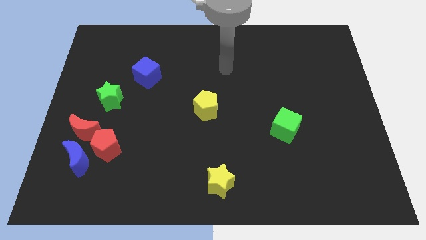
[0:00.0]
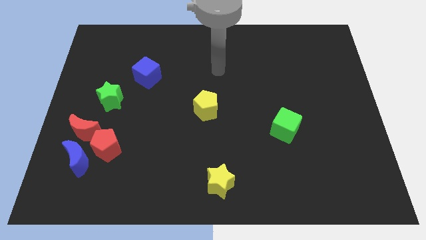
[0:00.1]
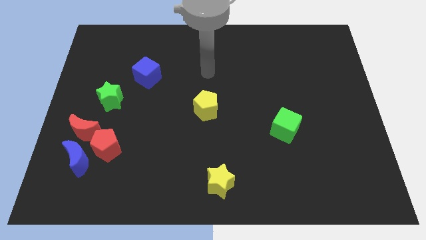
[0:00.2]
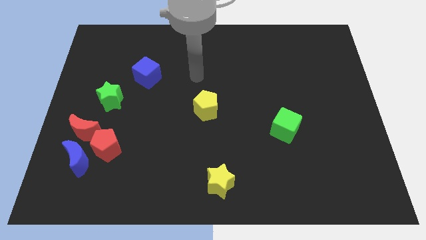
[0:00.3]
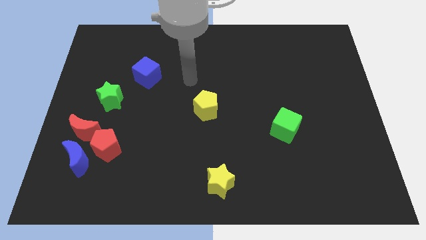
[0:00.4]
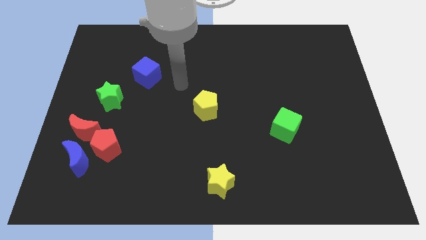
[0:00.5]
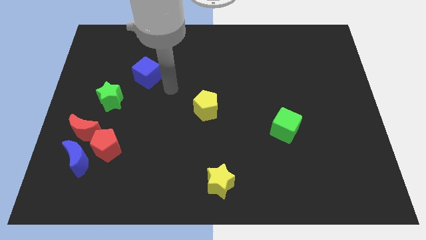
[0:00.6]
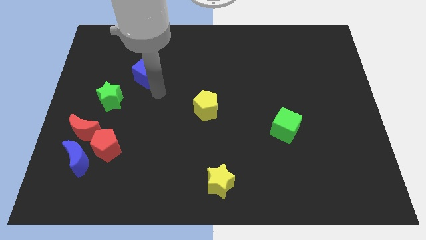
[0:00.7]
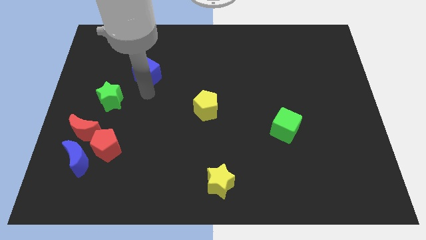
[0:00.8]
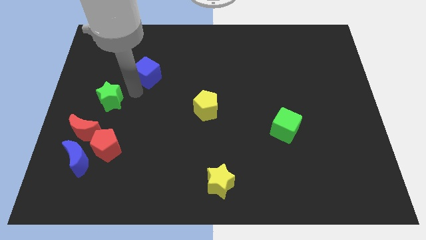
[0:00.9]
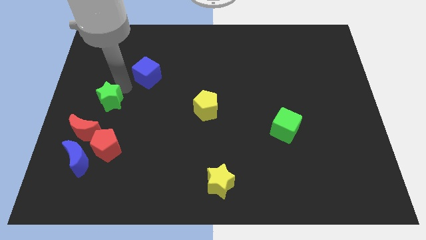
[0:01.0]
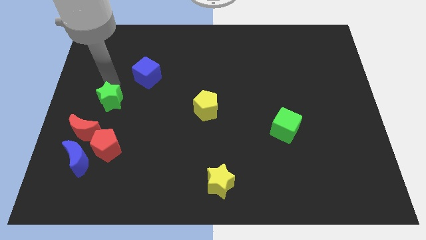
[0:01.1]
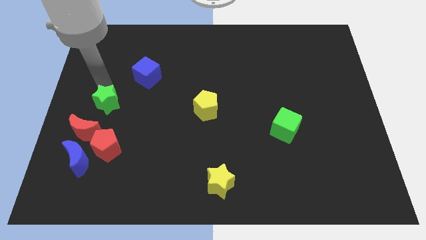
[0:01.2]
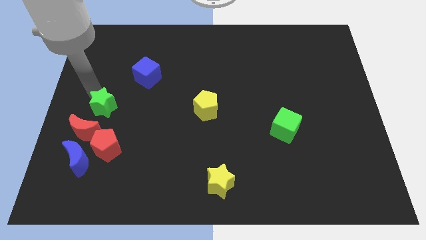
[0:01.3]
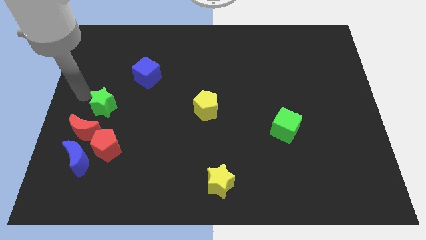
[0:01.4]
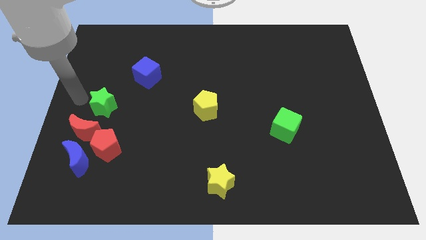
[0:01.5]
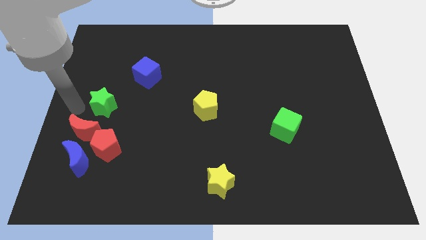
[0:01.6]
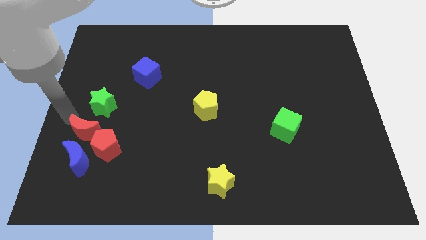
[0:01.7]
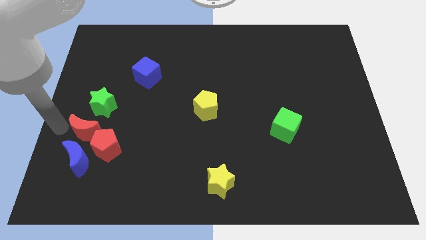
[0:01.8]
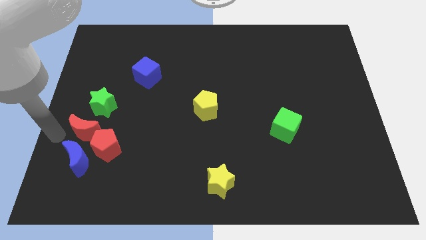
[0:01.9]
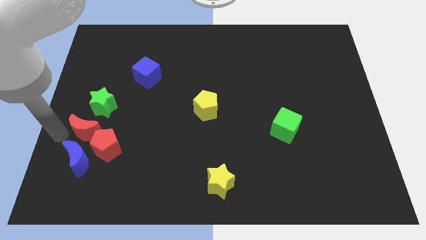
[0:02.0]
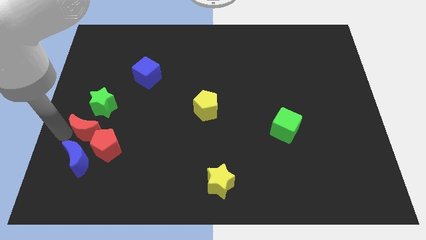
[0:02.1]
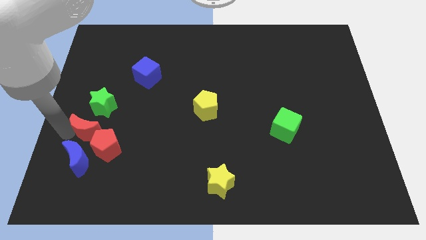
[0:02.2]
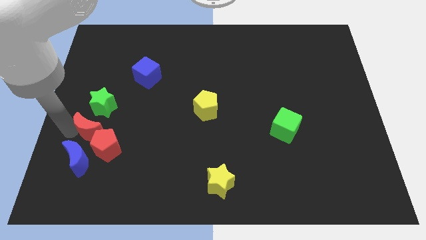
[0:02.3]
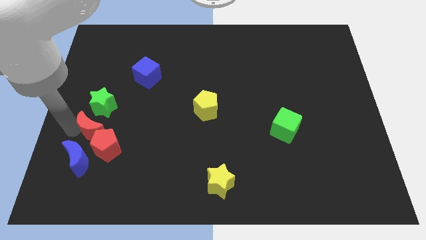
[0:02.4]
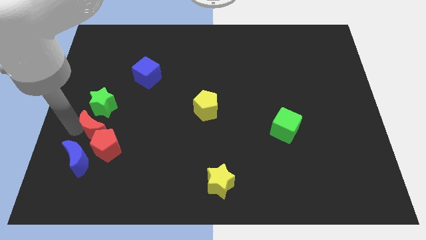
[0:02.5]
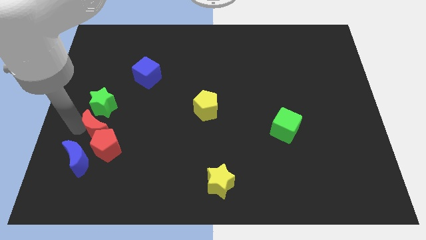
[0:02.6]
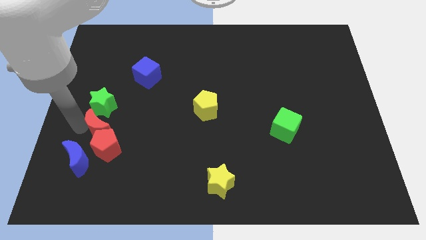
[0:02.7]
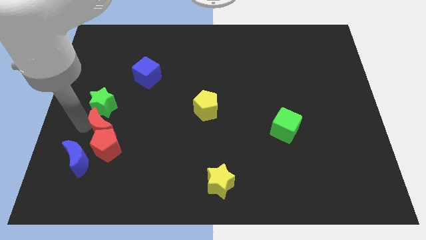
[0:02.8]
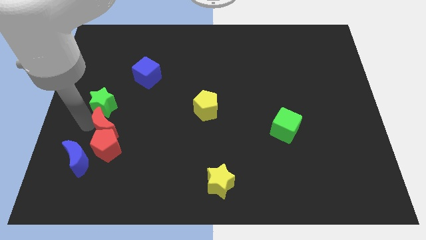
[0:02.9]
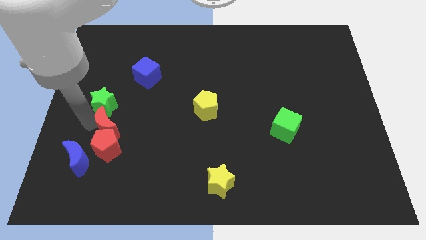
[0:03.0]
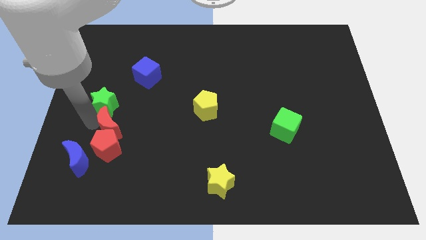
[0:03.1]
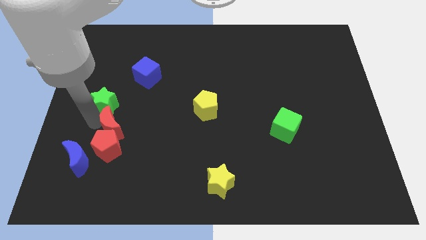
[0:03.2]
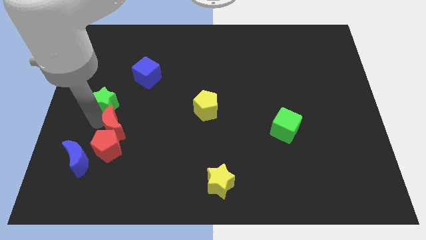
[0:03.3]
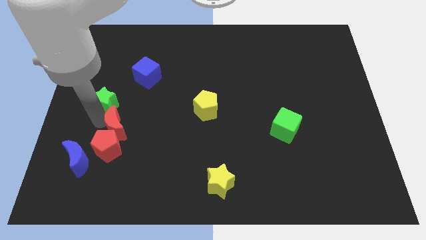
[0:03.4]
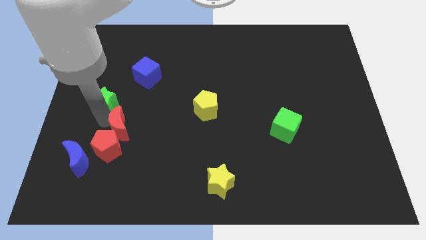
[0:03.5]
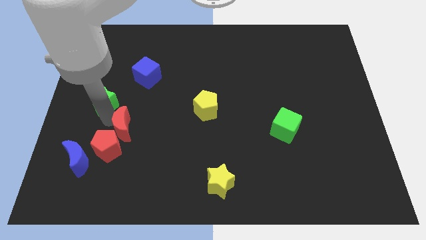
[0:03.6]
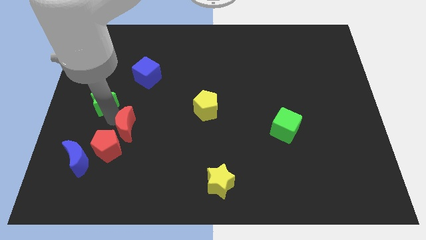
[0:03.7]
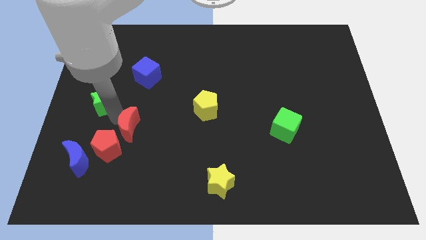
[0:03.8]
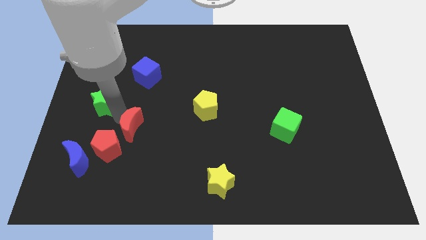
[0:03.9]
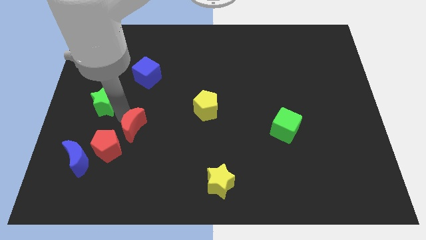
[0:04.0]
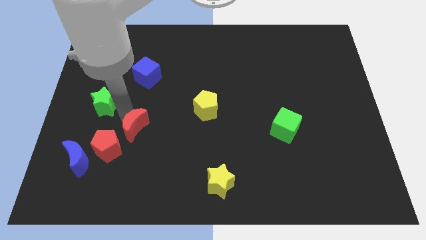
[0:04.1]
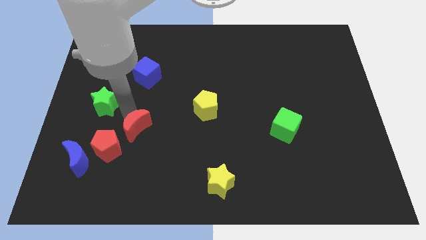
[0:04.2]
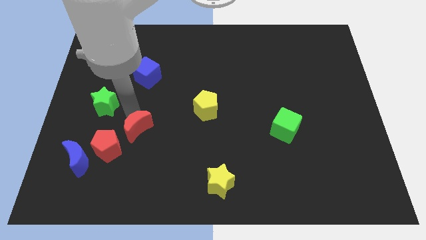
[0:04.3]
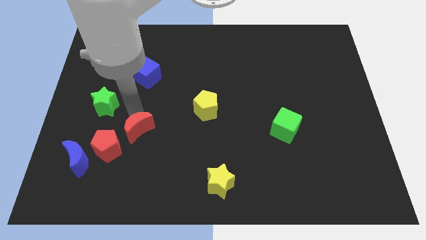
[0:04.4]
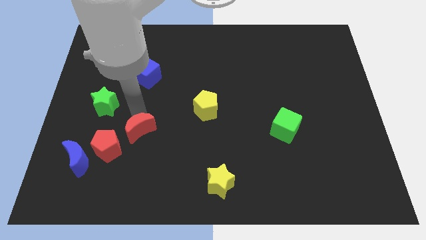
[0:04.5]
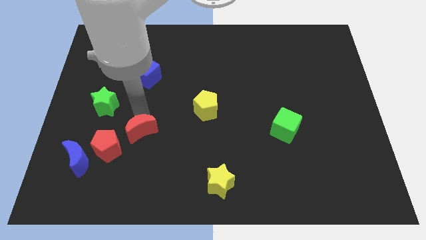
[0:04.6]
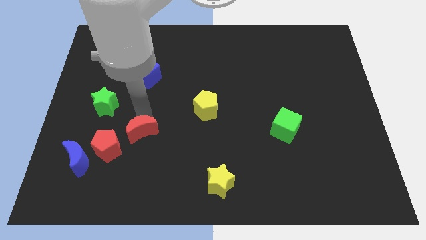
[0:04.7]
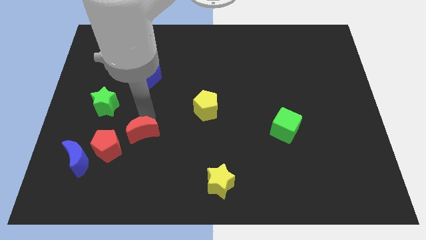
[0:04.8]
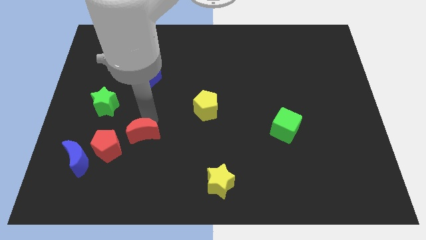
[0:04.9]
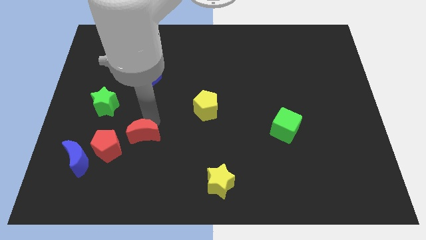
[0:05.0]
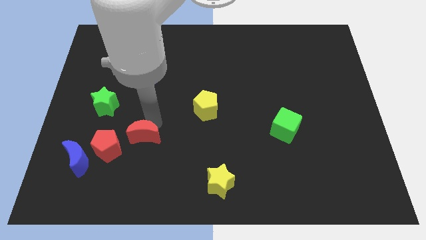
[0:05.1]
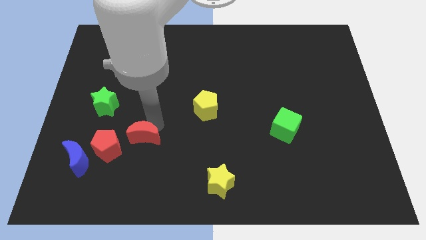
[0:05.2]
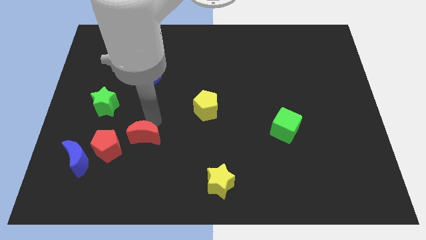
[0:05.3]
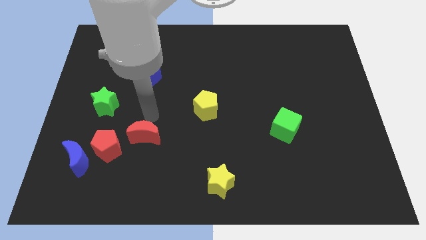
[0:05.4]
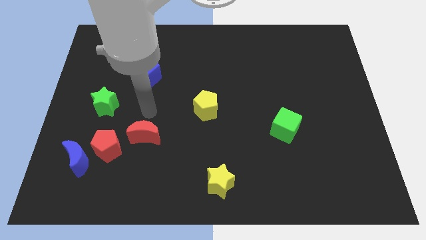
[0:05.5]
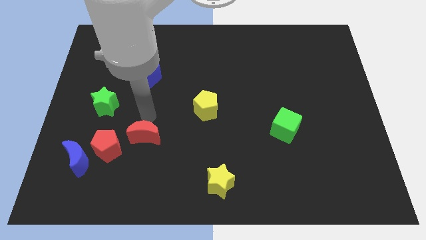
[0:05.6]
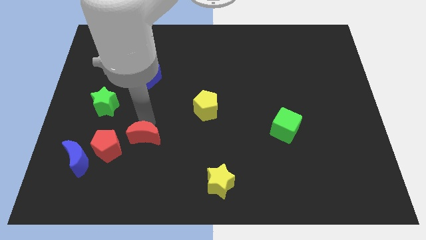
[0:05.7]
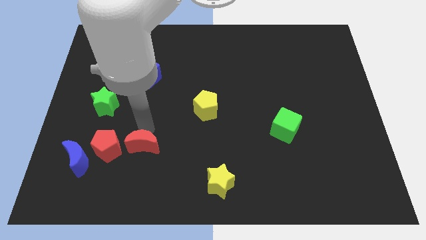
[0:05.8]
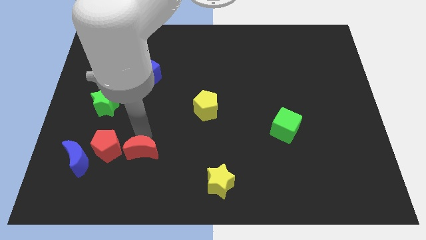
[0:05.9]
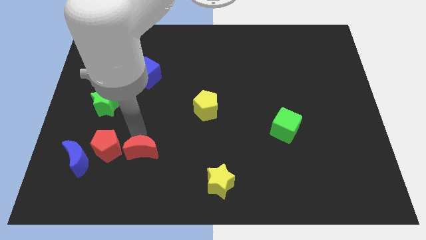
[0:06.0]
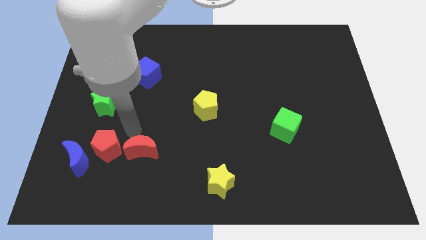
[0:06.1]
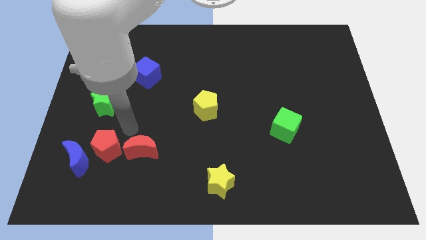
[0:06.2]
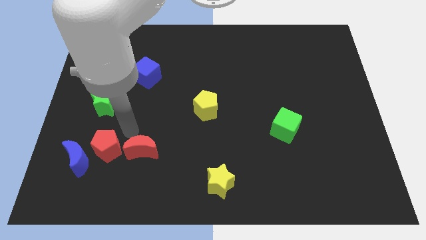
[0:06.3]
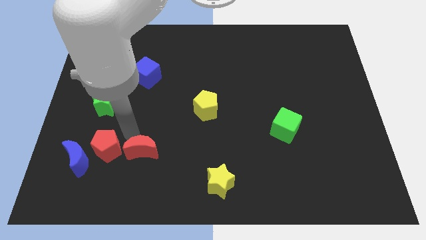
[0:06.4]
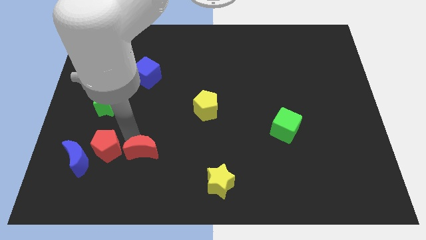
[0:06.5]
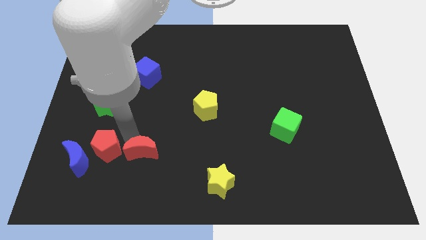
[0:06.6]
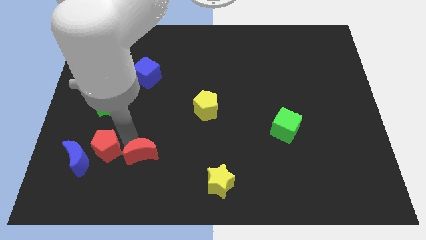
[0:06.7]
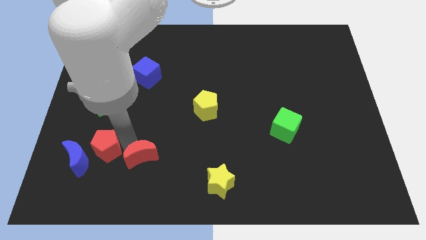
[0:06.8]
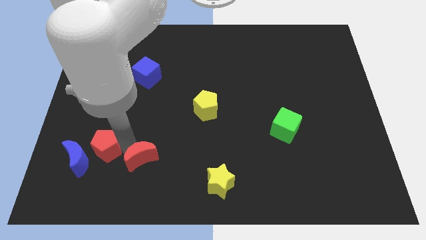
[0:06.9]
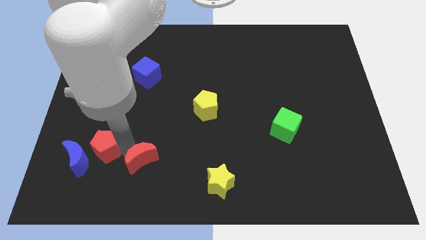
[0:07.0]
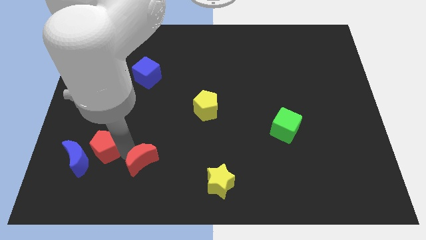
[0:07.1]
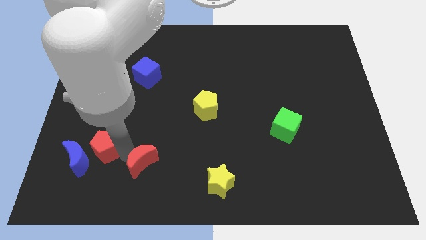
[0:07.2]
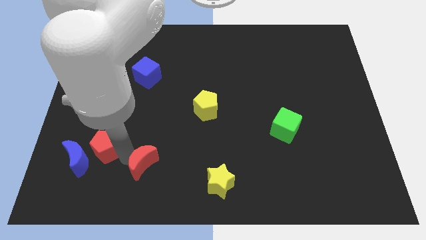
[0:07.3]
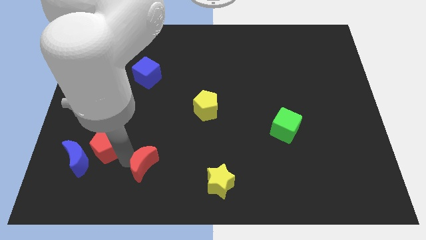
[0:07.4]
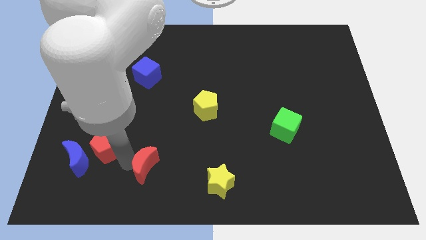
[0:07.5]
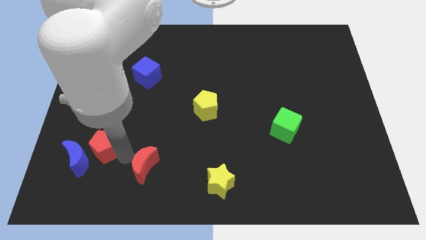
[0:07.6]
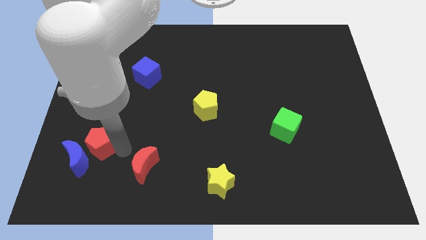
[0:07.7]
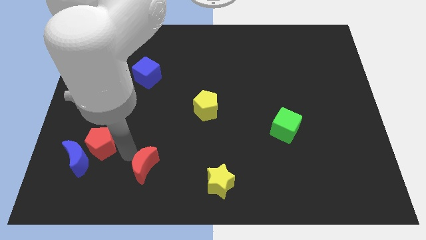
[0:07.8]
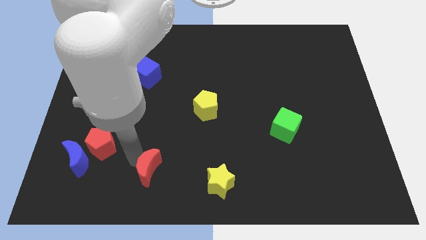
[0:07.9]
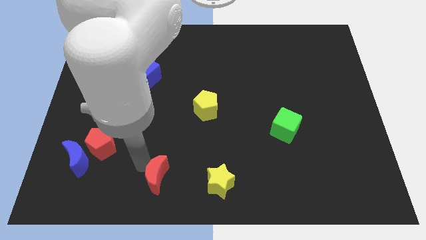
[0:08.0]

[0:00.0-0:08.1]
slide the red moon to the bottom side
